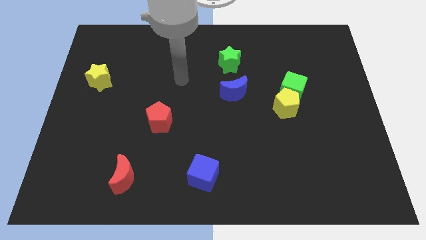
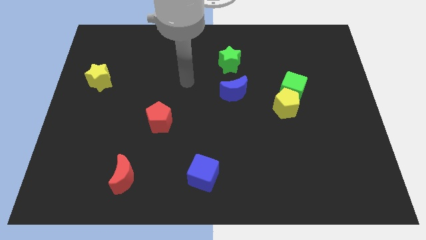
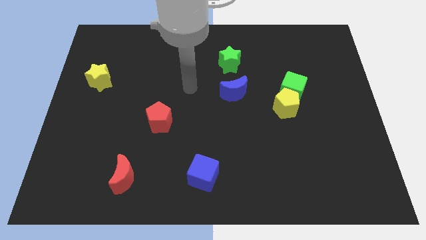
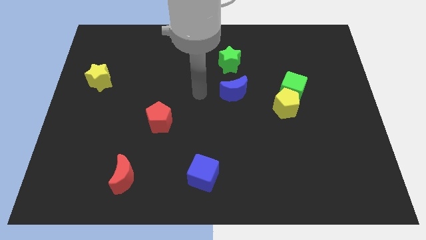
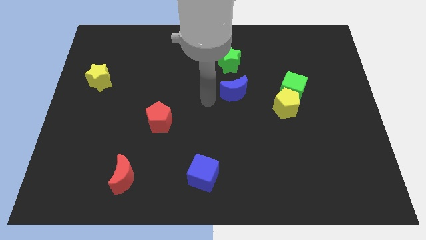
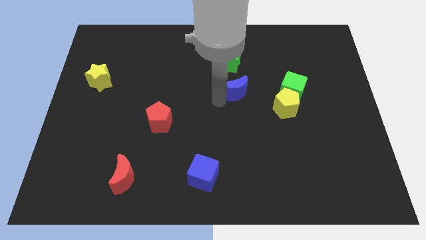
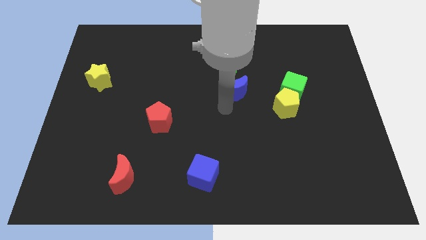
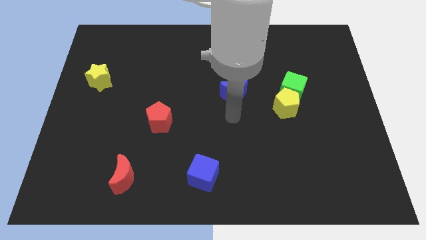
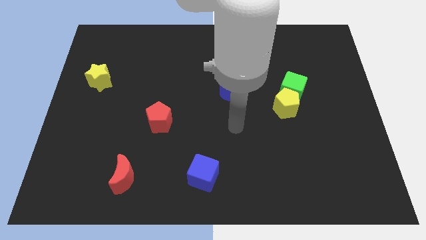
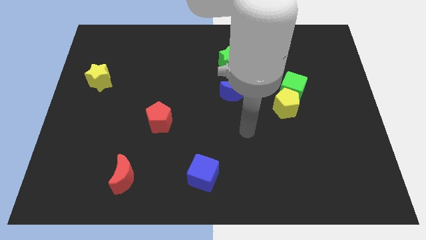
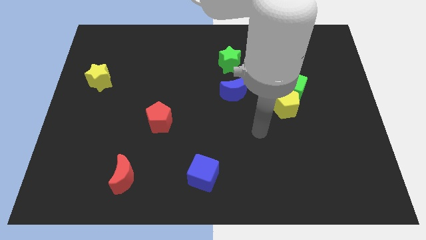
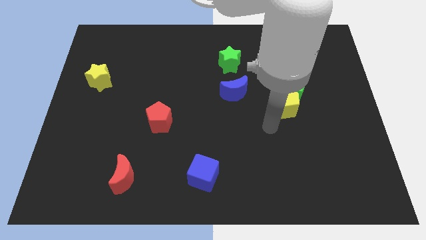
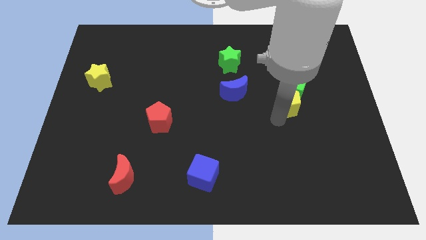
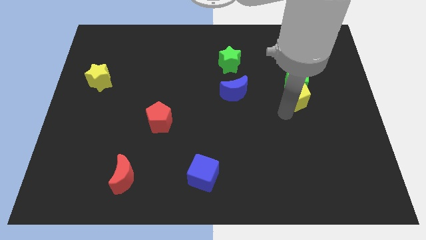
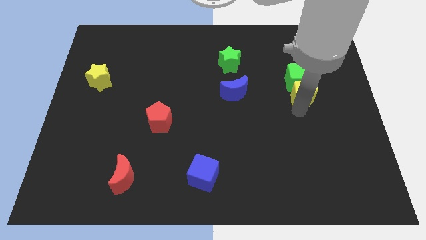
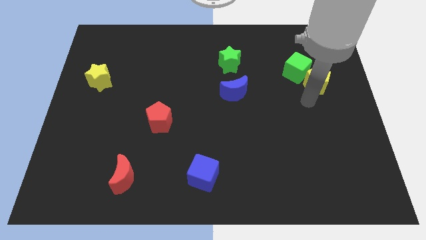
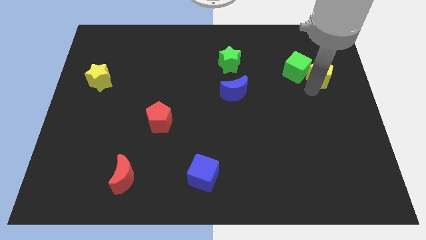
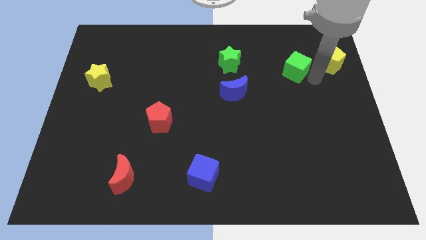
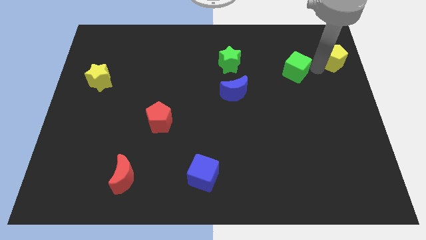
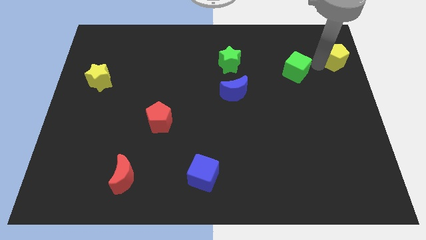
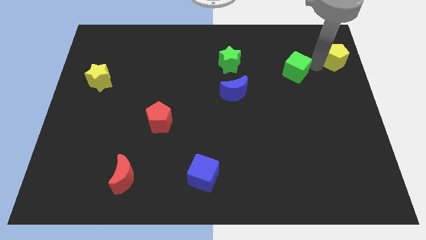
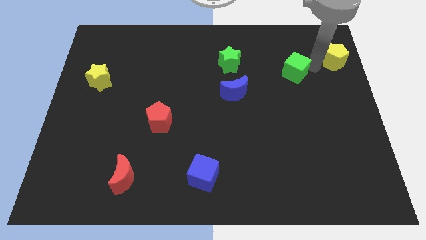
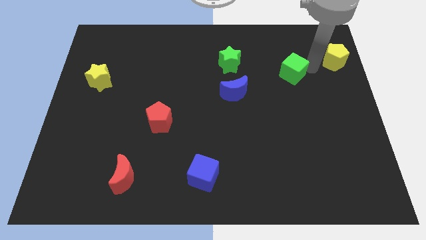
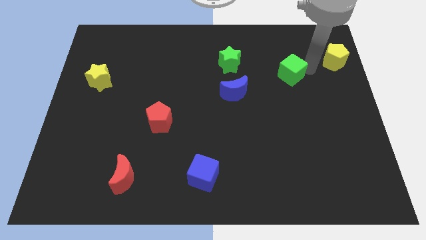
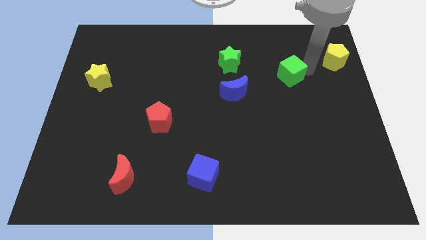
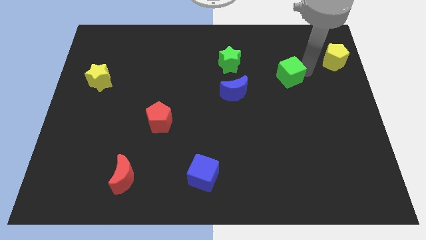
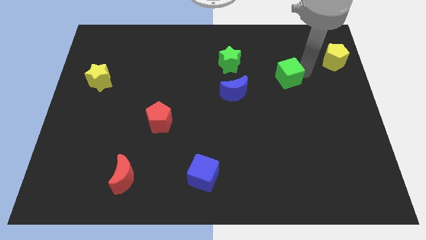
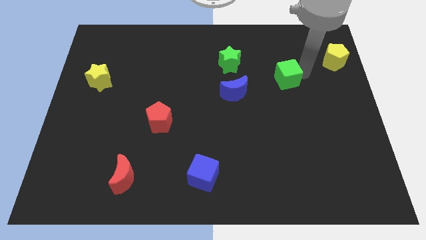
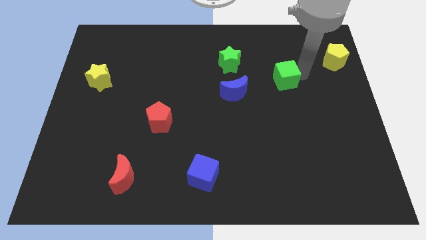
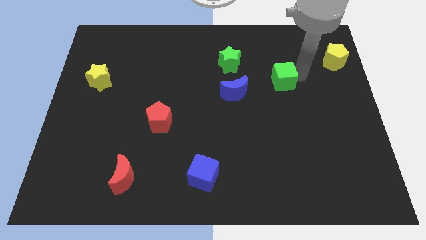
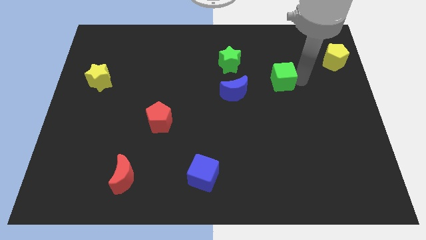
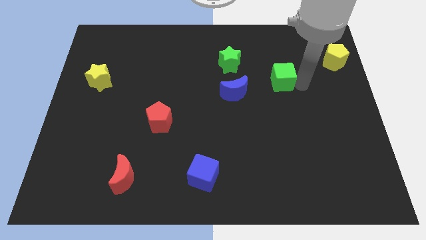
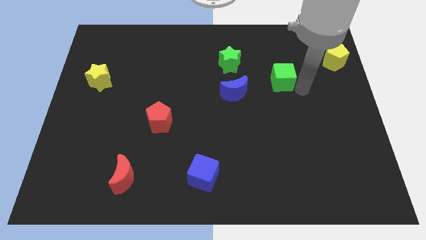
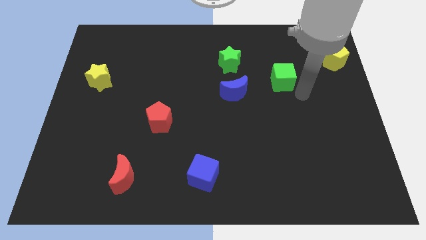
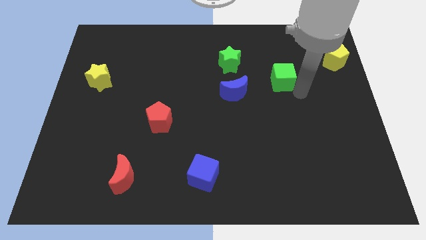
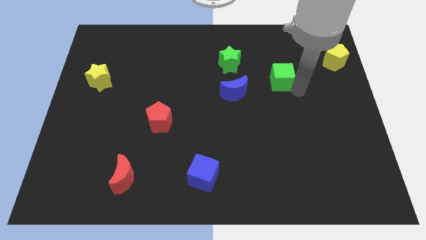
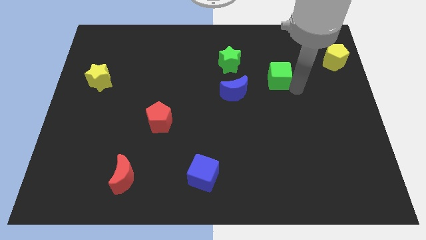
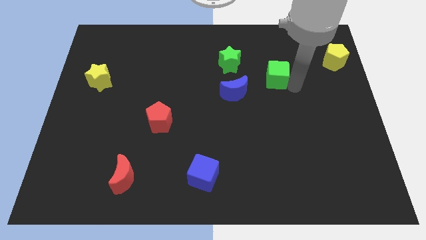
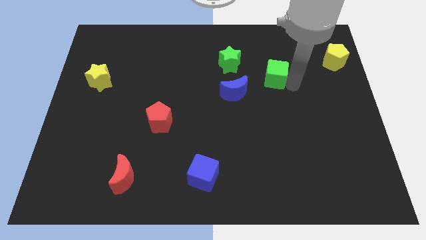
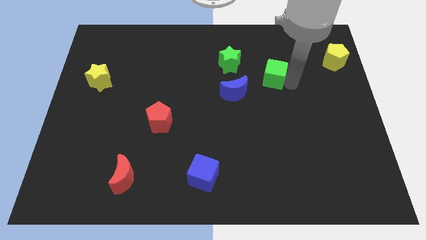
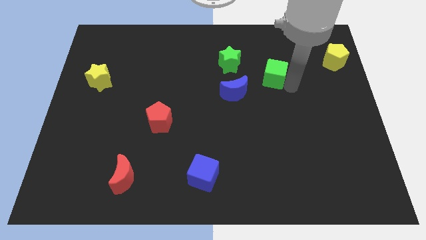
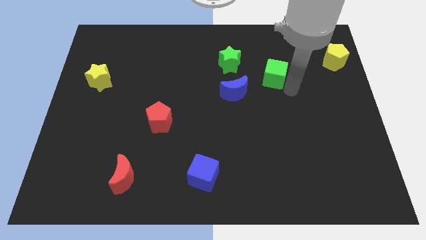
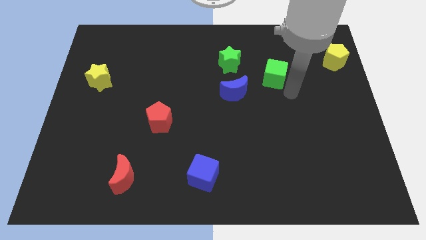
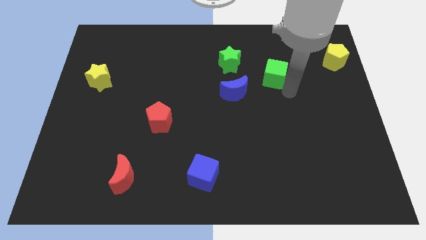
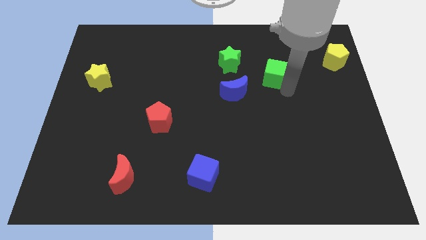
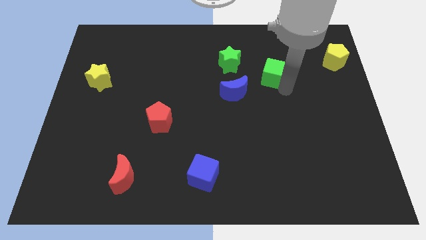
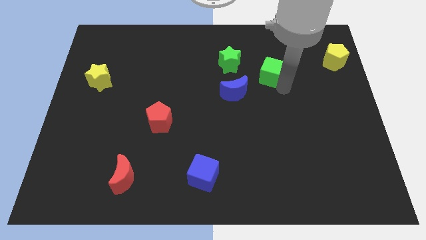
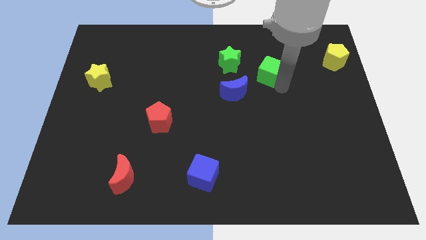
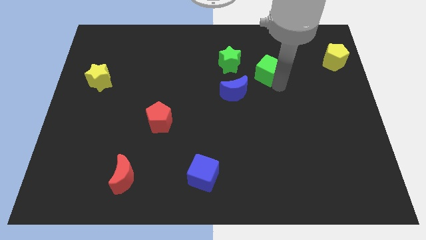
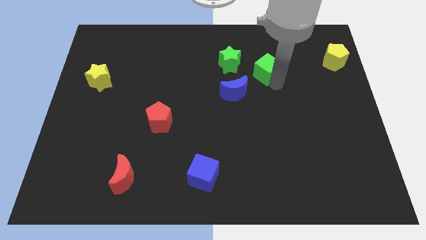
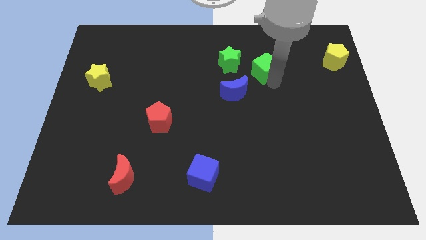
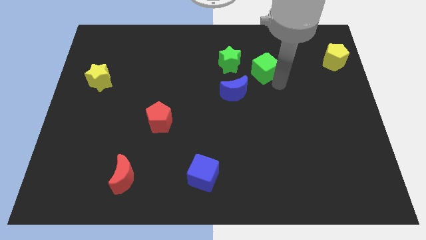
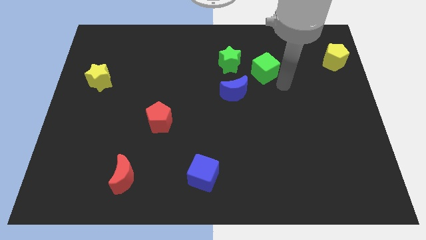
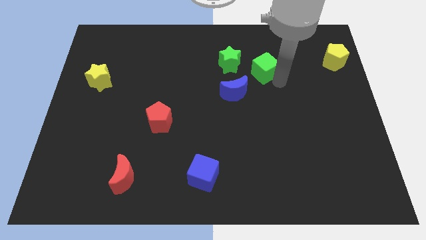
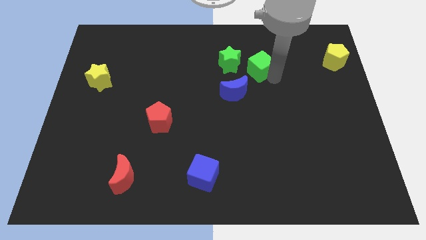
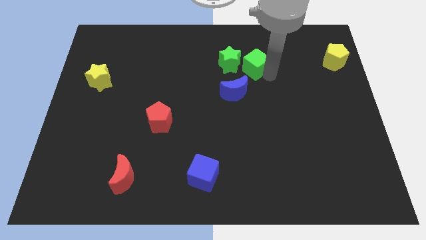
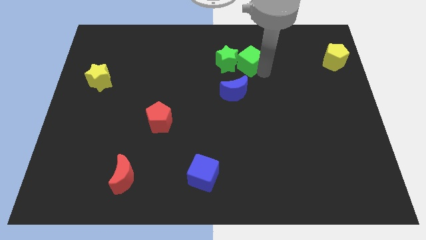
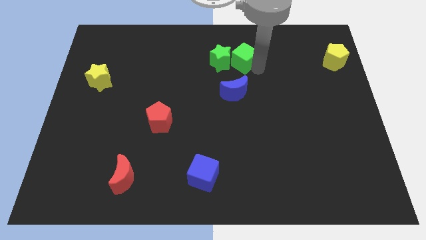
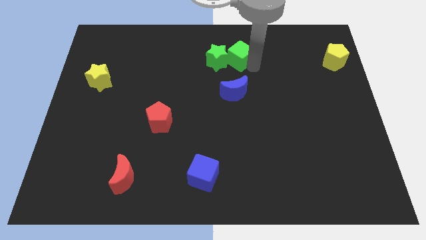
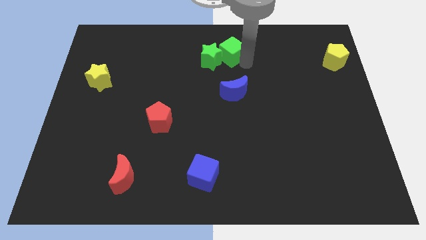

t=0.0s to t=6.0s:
push the green cube to the top

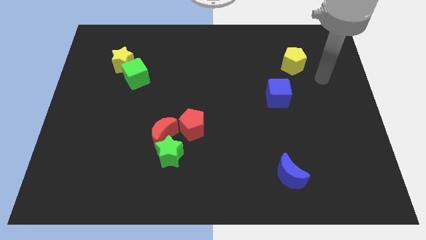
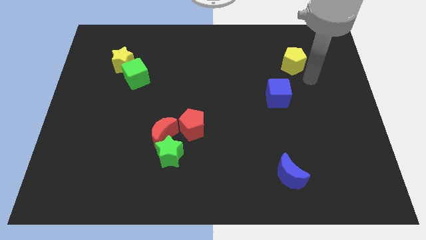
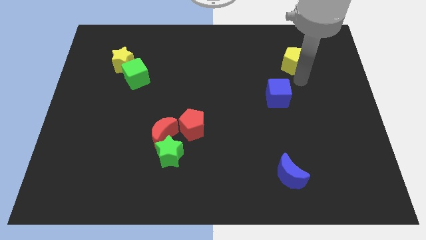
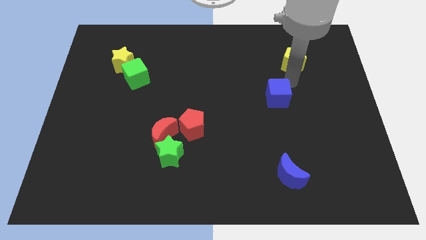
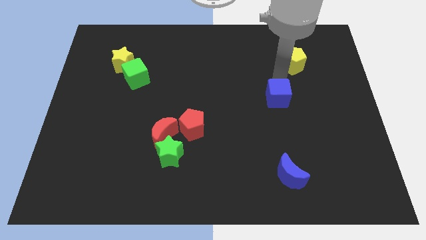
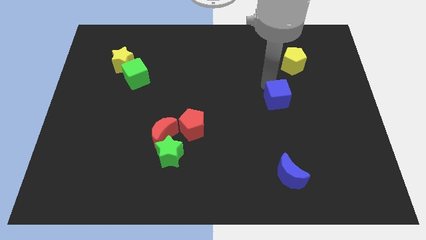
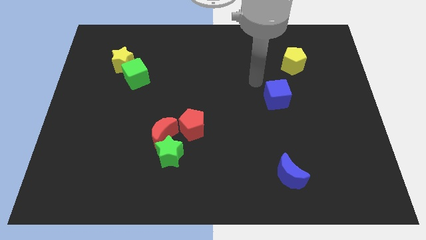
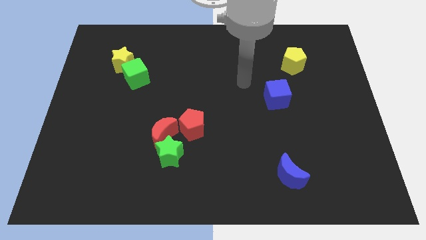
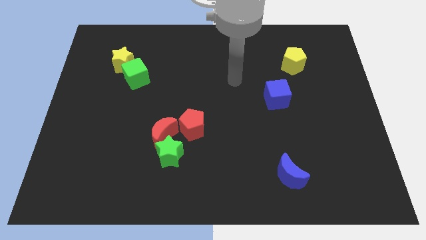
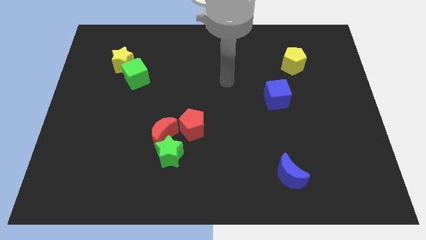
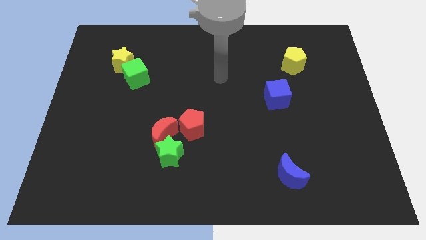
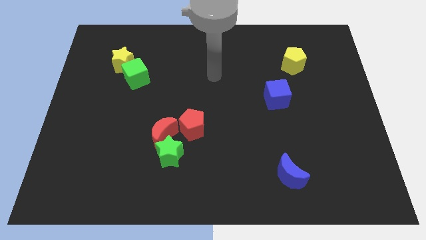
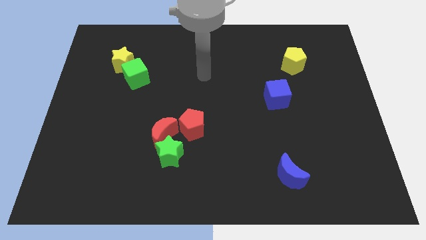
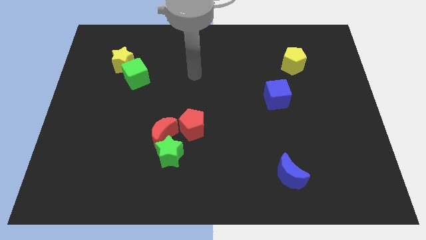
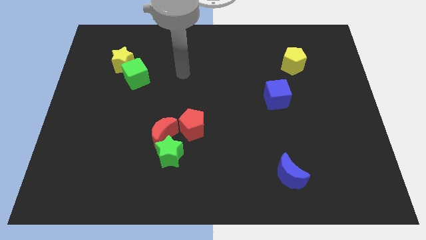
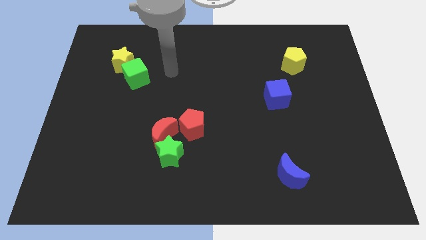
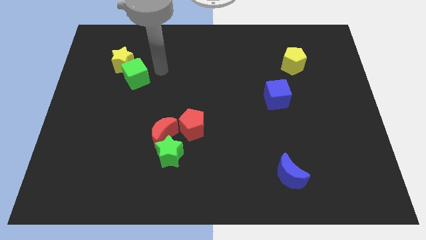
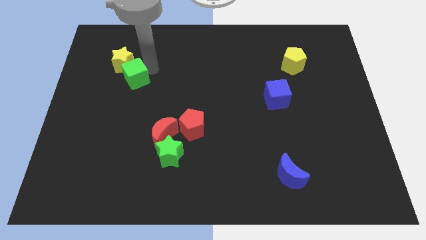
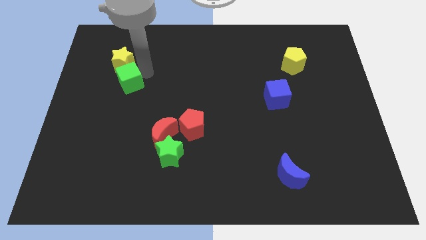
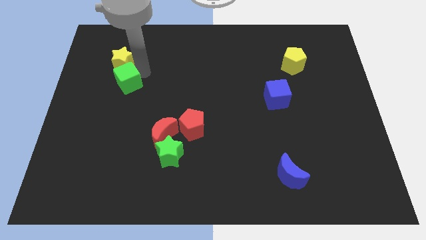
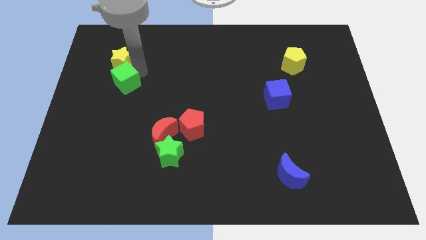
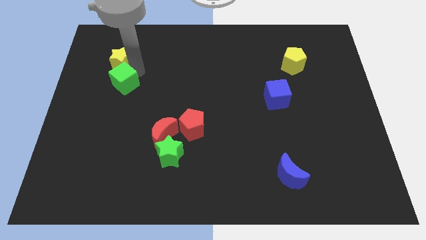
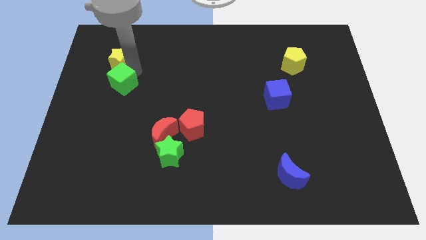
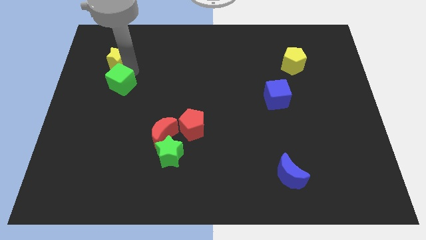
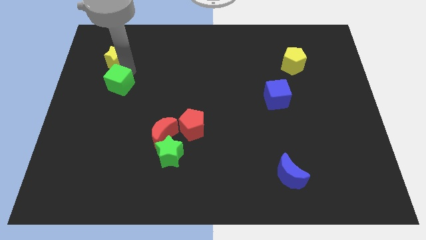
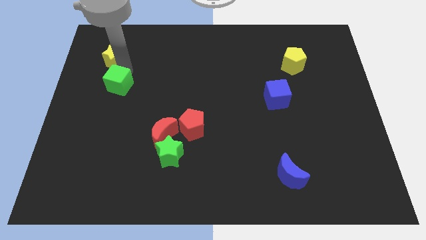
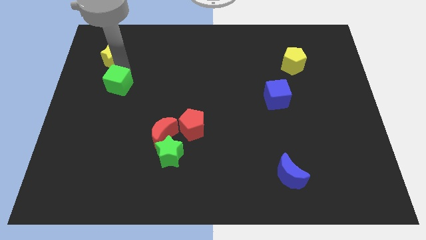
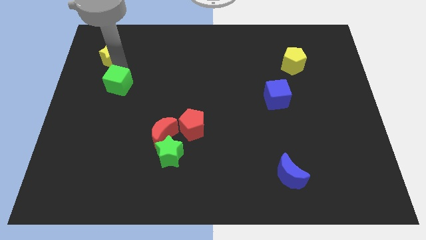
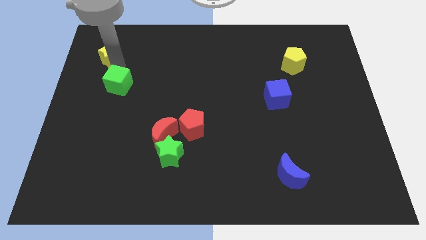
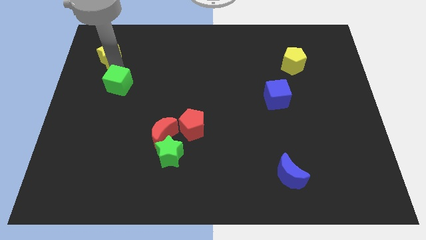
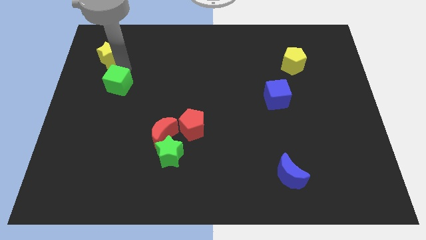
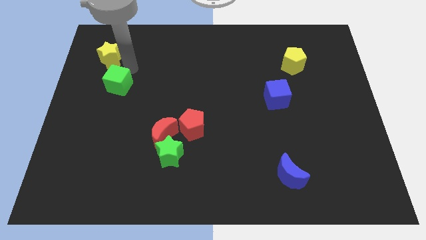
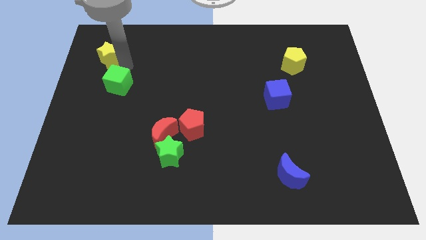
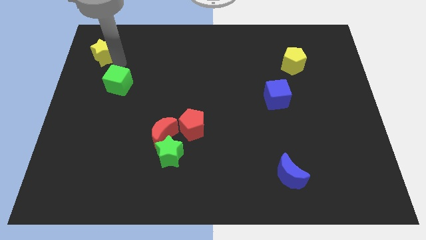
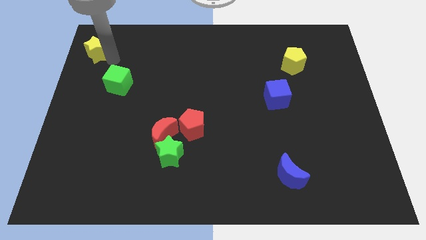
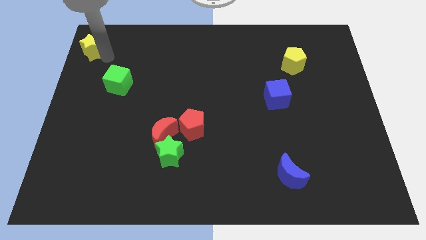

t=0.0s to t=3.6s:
put the yellow star to the upper left corner
